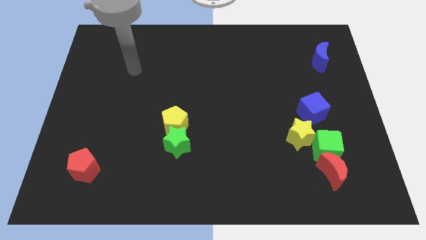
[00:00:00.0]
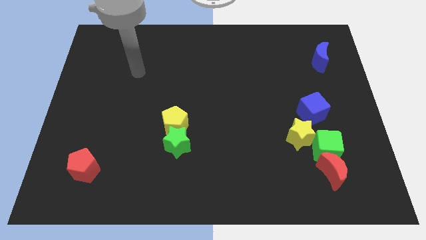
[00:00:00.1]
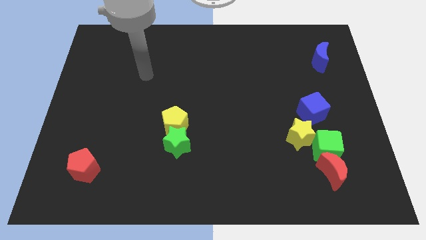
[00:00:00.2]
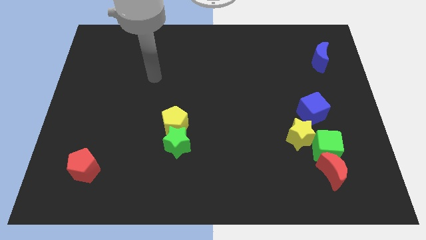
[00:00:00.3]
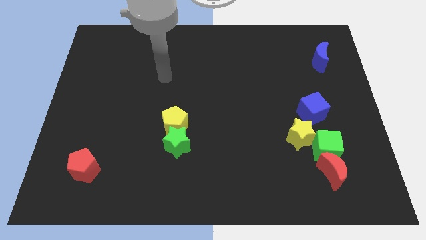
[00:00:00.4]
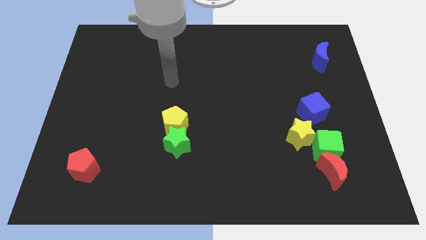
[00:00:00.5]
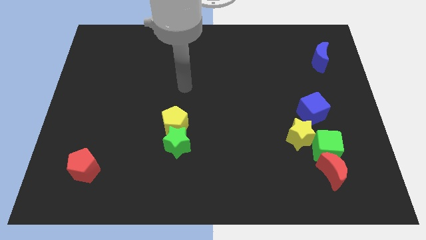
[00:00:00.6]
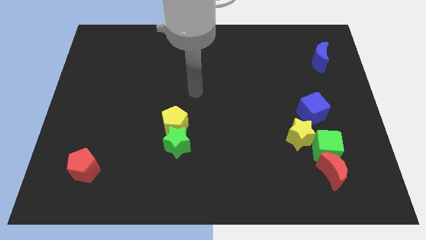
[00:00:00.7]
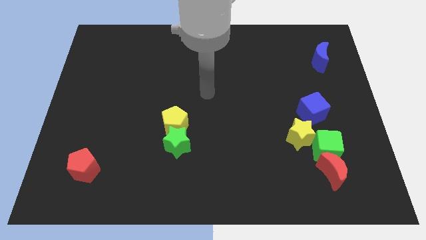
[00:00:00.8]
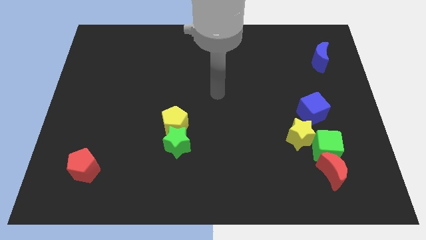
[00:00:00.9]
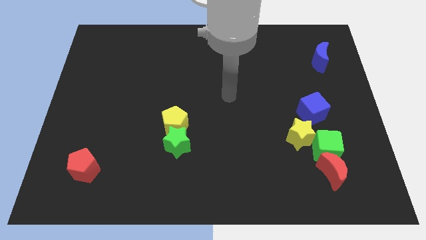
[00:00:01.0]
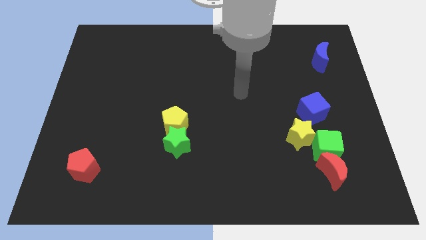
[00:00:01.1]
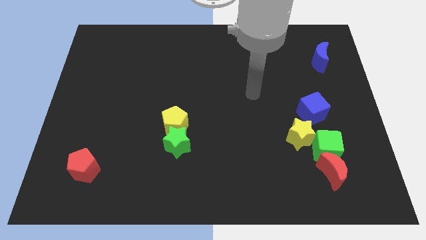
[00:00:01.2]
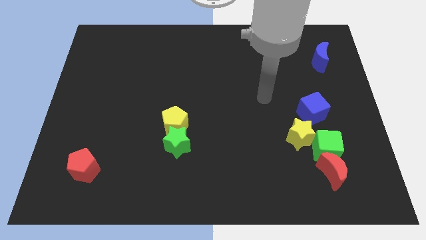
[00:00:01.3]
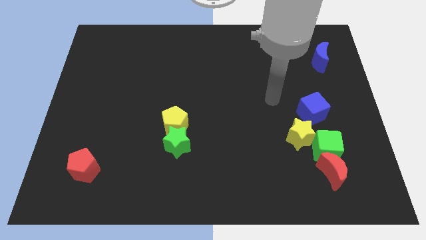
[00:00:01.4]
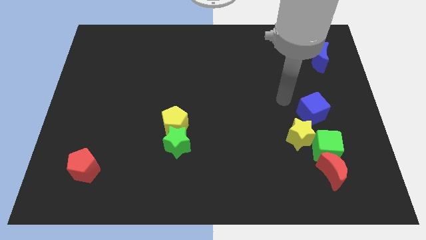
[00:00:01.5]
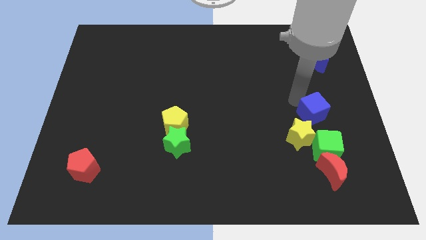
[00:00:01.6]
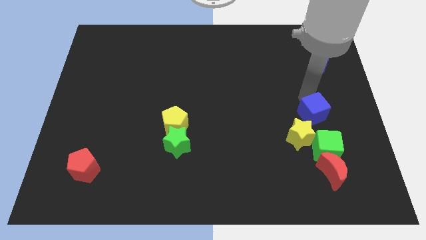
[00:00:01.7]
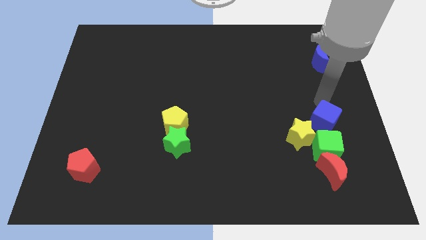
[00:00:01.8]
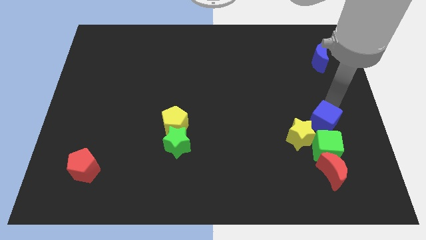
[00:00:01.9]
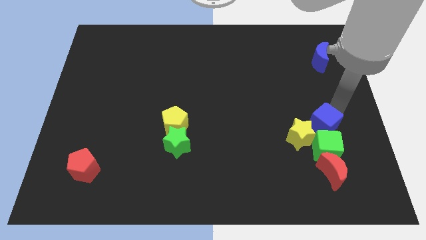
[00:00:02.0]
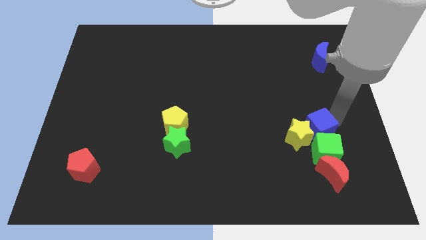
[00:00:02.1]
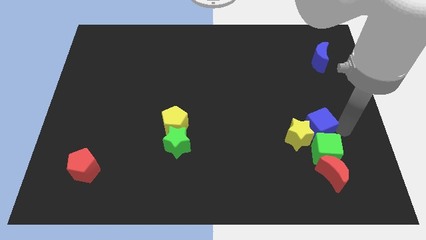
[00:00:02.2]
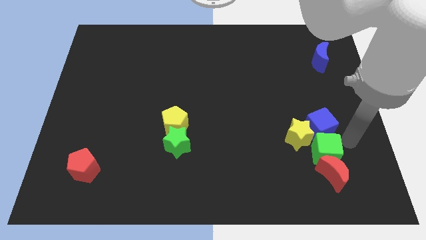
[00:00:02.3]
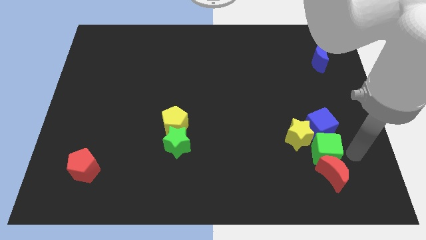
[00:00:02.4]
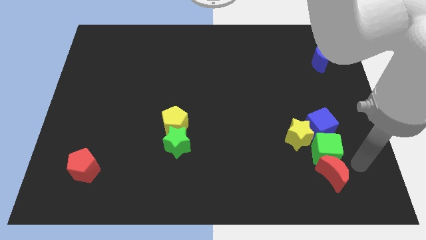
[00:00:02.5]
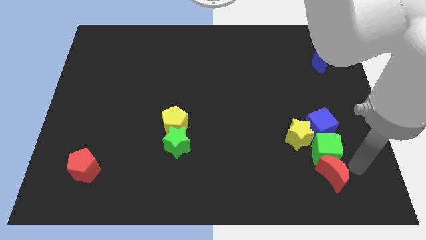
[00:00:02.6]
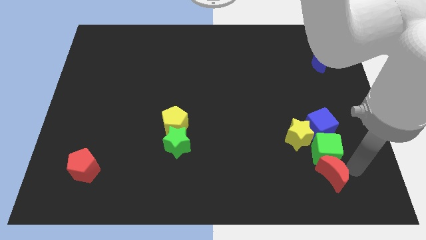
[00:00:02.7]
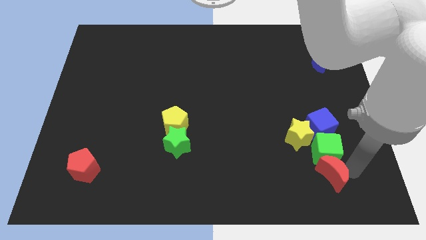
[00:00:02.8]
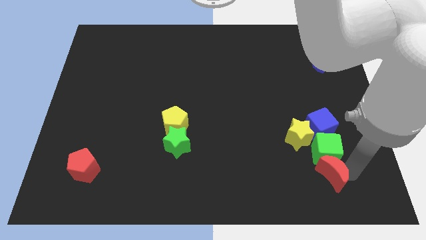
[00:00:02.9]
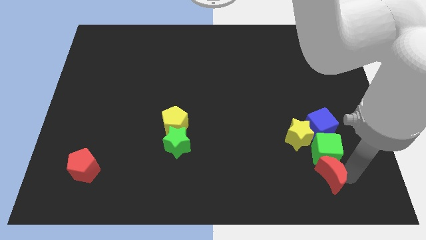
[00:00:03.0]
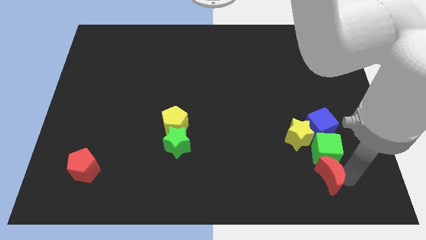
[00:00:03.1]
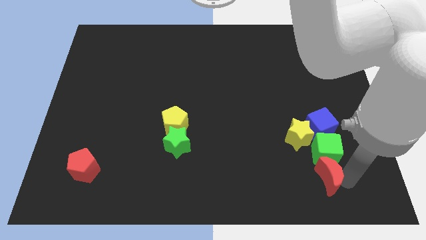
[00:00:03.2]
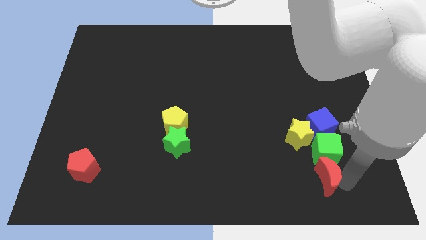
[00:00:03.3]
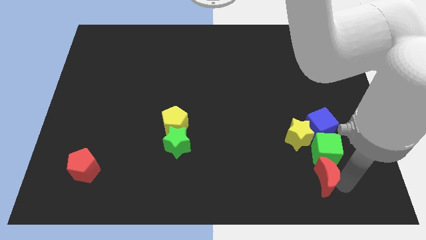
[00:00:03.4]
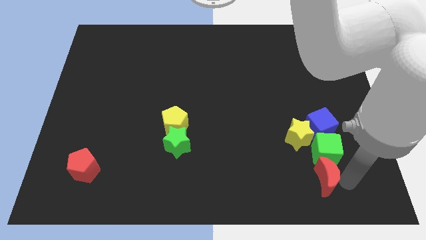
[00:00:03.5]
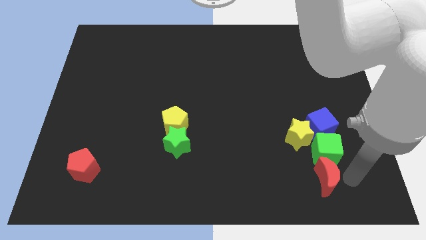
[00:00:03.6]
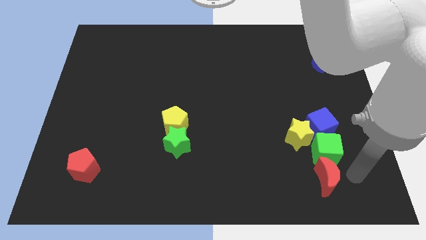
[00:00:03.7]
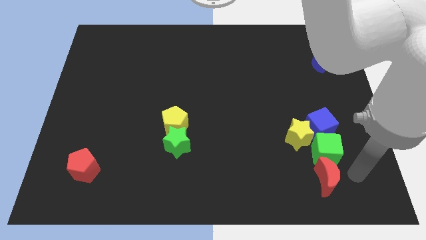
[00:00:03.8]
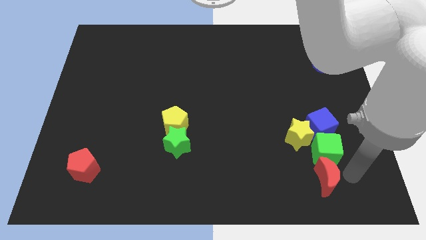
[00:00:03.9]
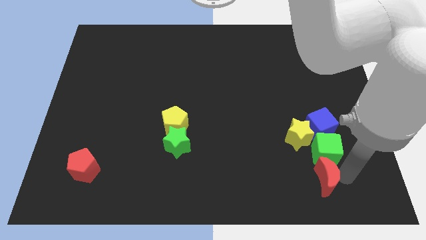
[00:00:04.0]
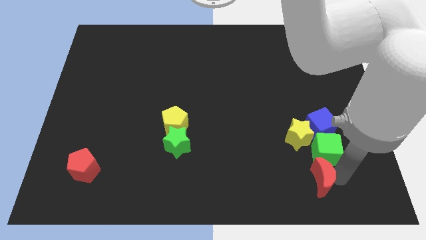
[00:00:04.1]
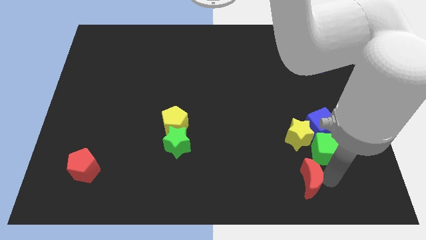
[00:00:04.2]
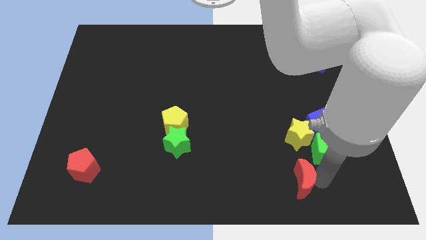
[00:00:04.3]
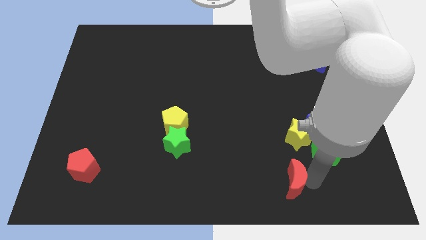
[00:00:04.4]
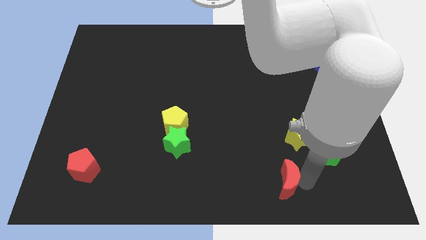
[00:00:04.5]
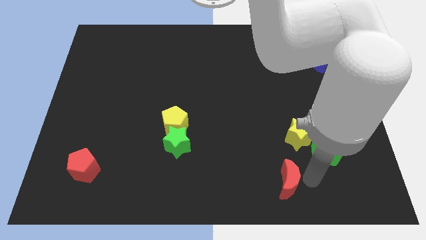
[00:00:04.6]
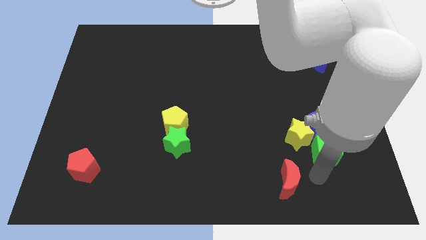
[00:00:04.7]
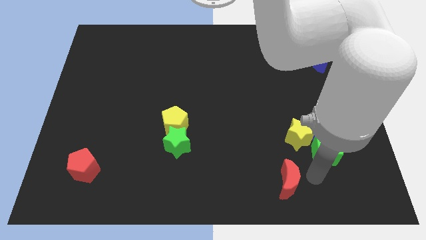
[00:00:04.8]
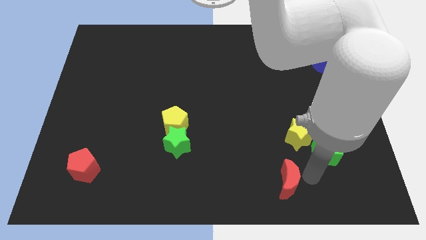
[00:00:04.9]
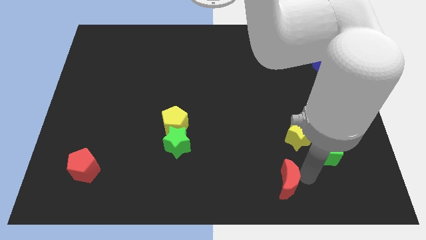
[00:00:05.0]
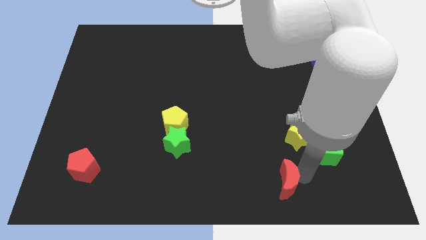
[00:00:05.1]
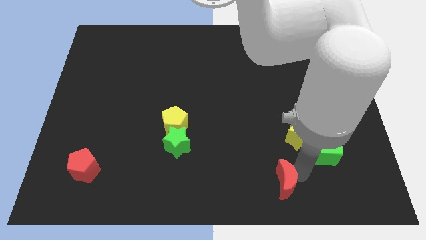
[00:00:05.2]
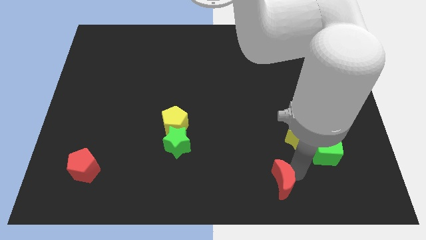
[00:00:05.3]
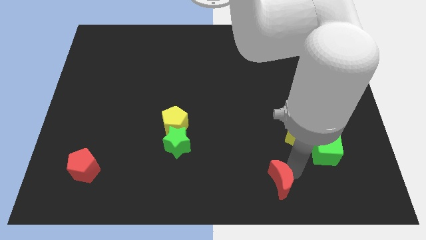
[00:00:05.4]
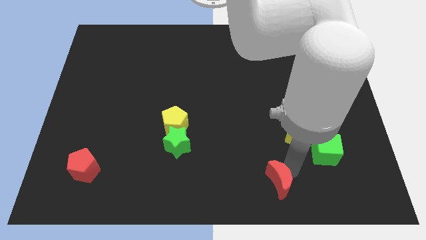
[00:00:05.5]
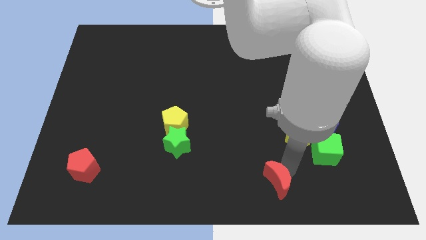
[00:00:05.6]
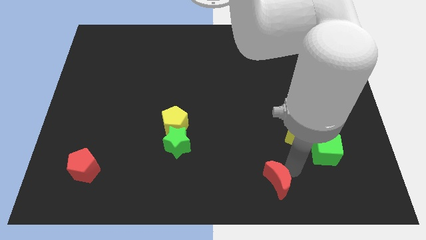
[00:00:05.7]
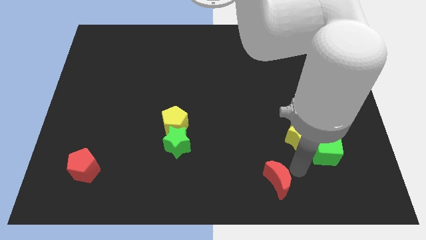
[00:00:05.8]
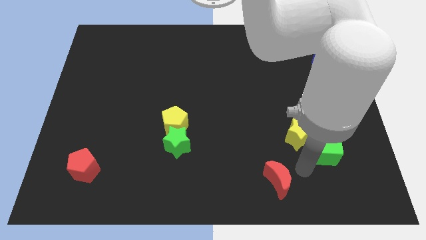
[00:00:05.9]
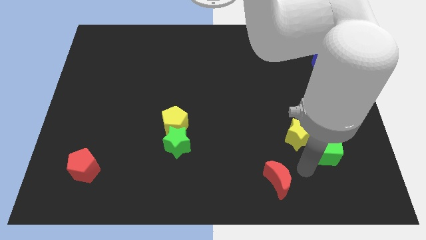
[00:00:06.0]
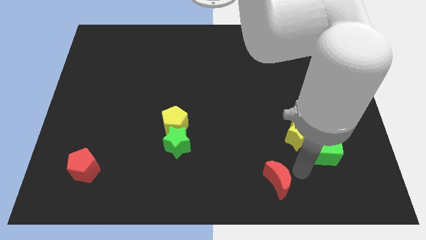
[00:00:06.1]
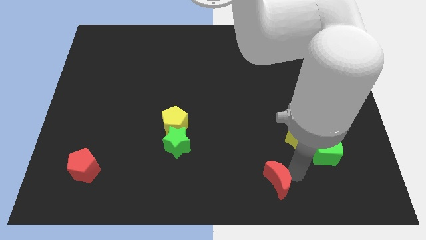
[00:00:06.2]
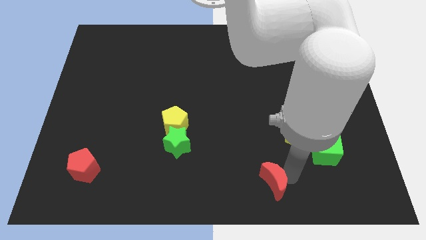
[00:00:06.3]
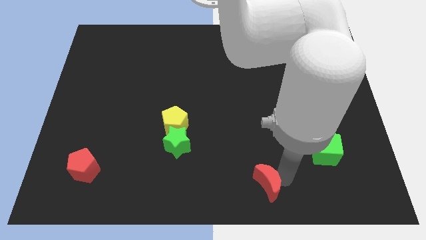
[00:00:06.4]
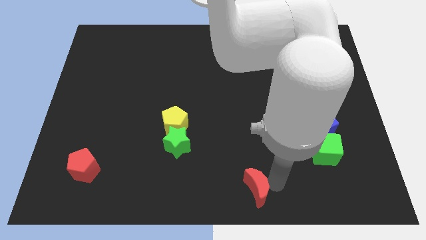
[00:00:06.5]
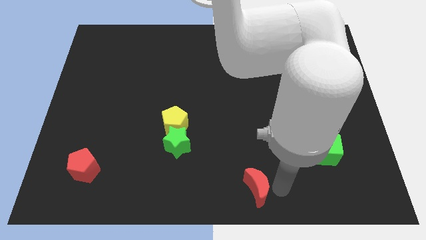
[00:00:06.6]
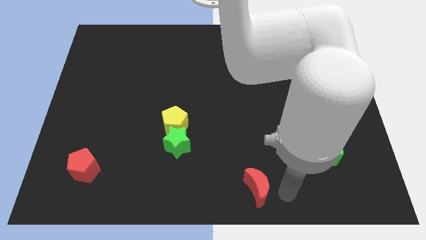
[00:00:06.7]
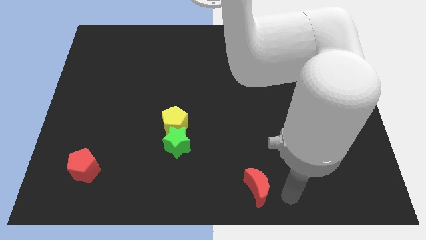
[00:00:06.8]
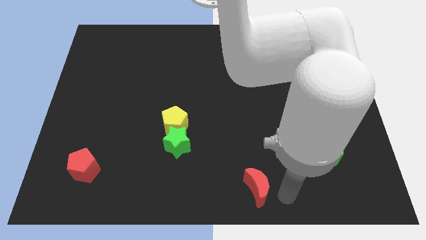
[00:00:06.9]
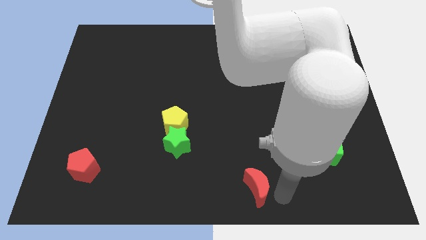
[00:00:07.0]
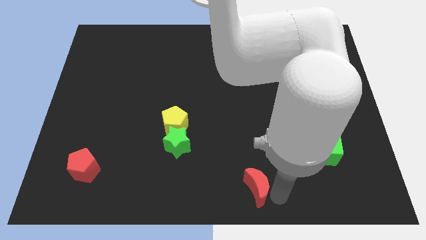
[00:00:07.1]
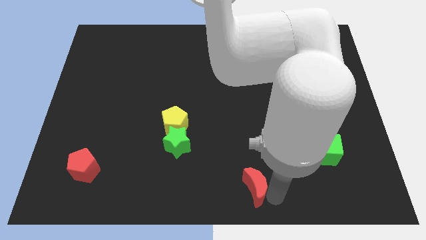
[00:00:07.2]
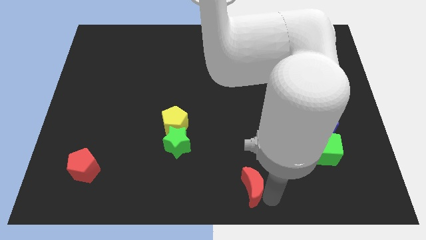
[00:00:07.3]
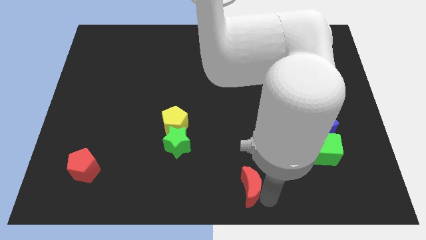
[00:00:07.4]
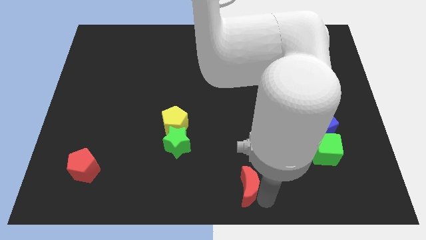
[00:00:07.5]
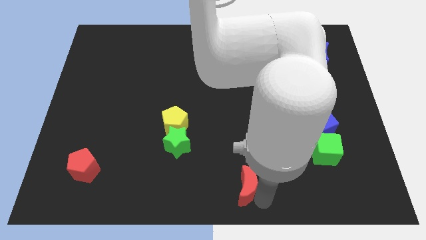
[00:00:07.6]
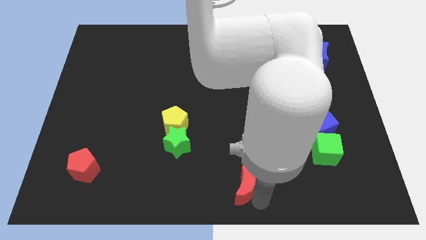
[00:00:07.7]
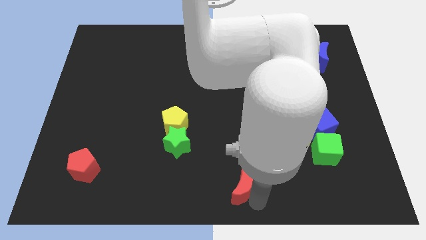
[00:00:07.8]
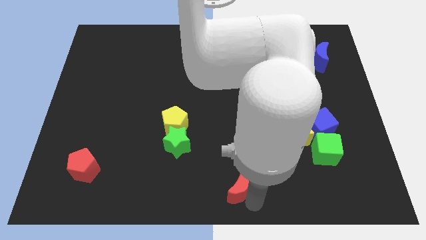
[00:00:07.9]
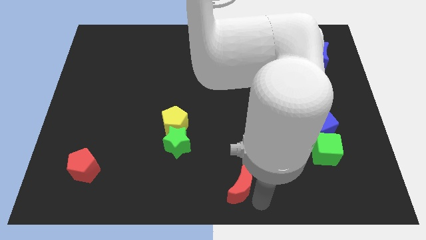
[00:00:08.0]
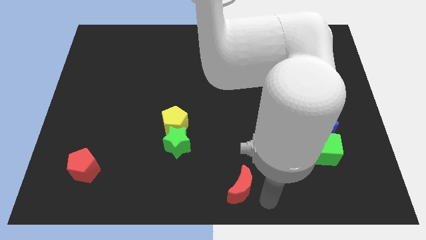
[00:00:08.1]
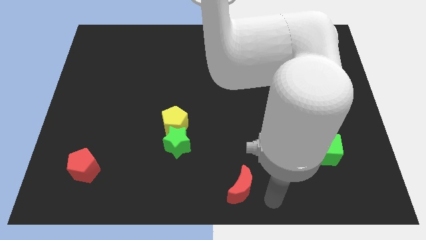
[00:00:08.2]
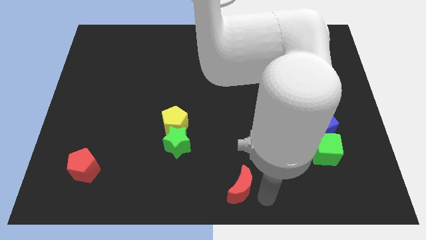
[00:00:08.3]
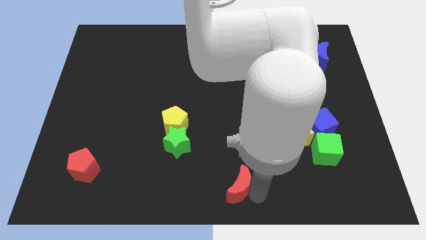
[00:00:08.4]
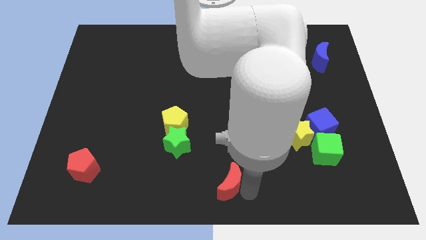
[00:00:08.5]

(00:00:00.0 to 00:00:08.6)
move the red moon left
